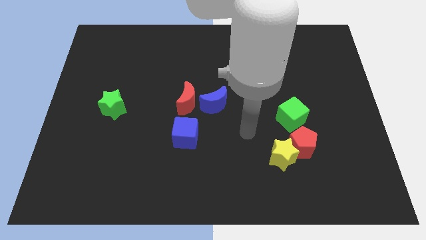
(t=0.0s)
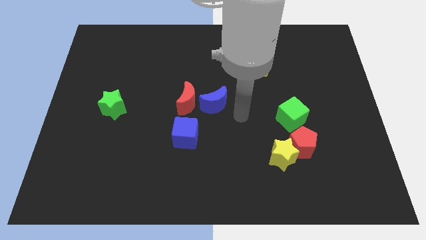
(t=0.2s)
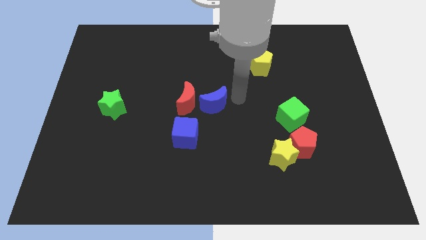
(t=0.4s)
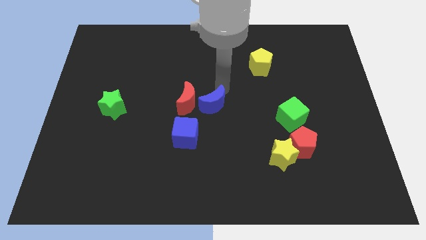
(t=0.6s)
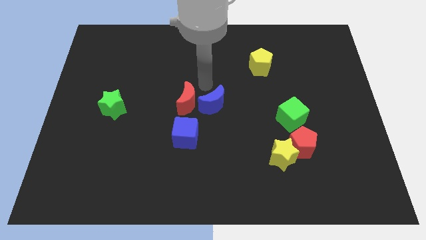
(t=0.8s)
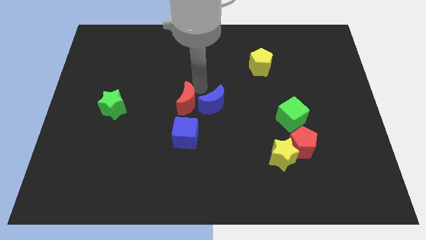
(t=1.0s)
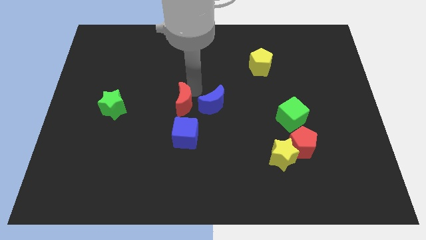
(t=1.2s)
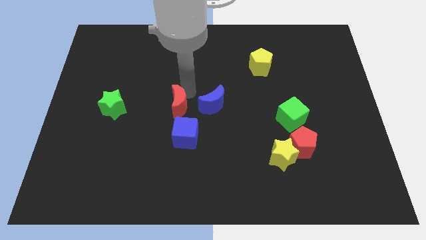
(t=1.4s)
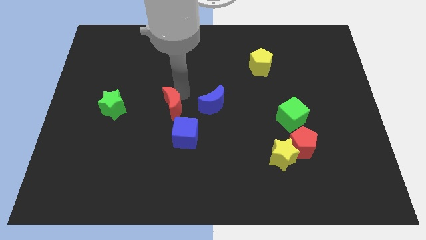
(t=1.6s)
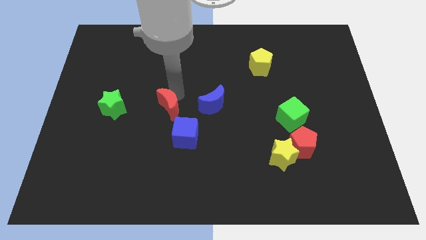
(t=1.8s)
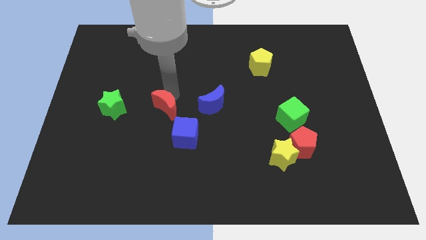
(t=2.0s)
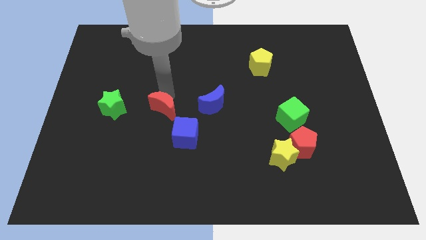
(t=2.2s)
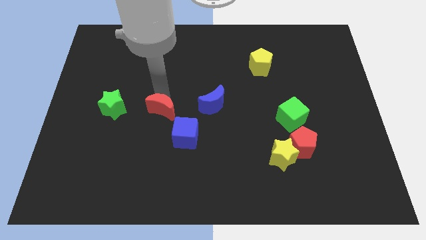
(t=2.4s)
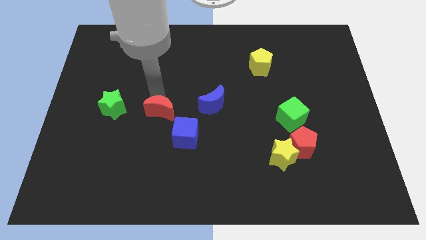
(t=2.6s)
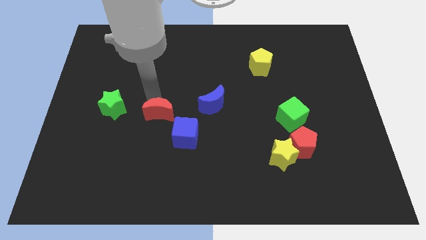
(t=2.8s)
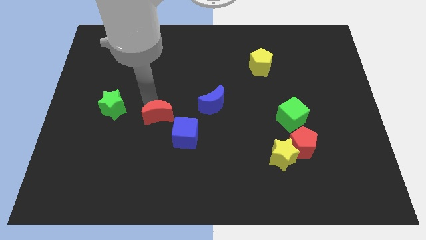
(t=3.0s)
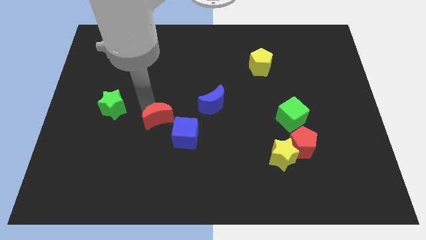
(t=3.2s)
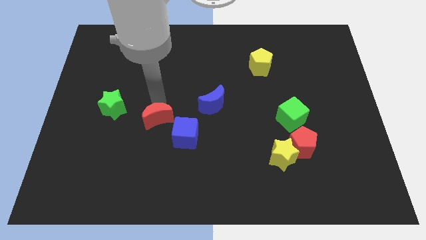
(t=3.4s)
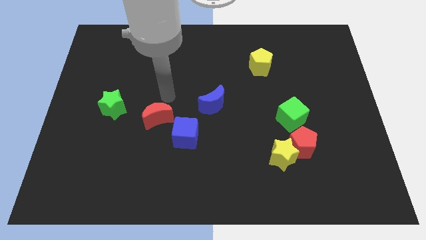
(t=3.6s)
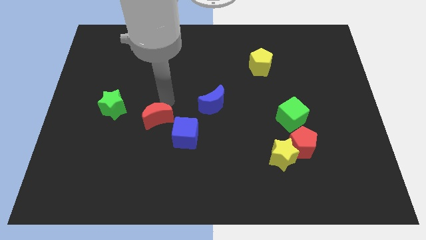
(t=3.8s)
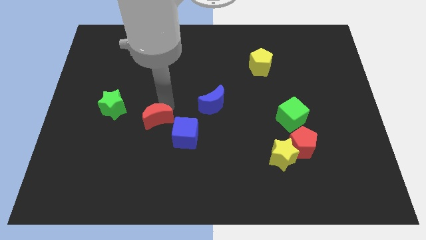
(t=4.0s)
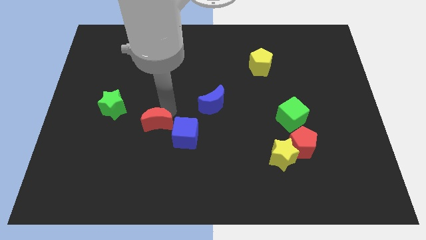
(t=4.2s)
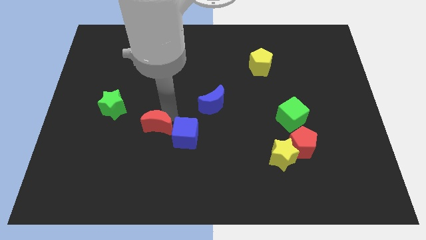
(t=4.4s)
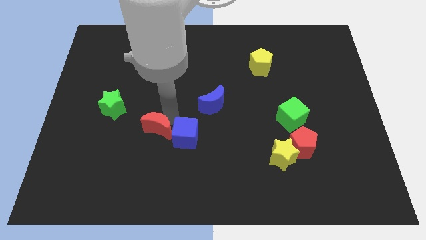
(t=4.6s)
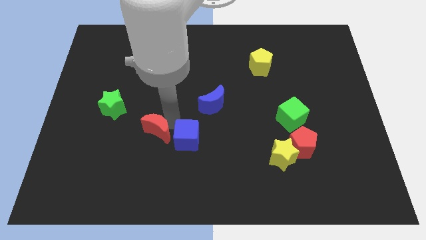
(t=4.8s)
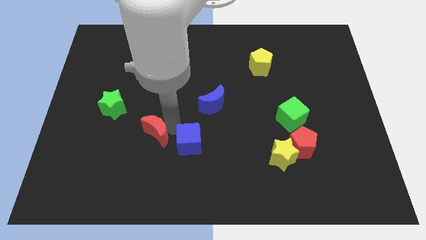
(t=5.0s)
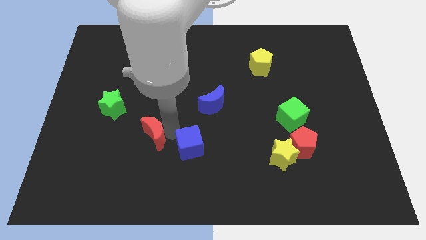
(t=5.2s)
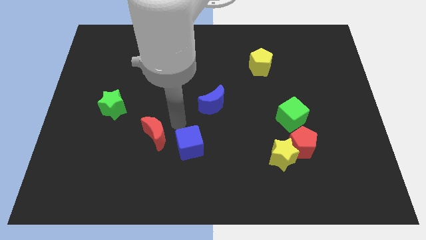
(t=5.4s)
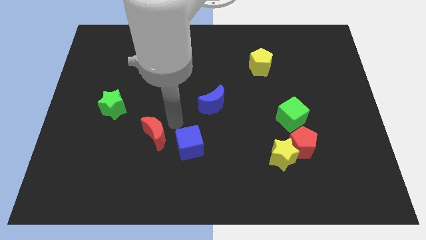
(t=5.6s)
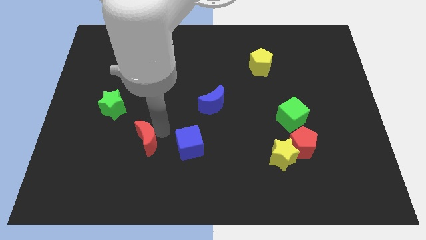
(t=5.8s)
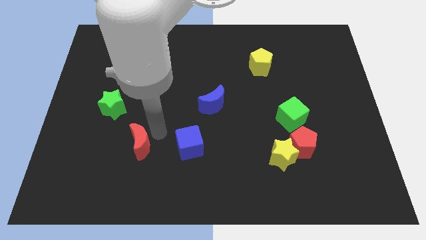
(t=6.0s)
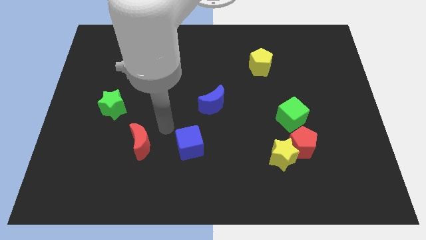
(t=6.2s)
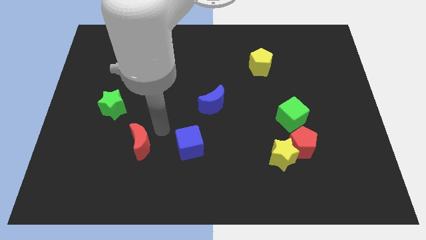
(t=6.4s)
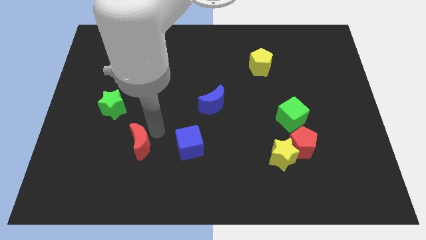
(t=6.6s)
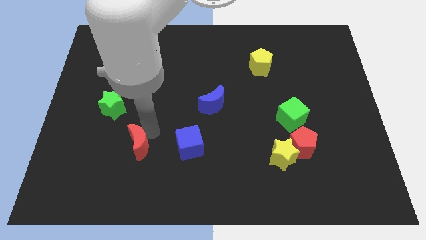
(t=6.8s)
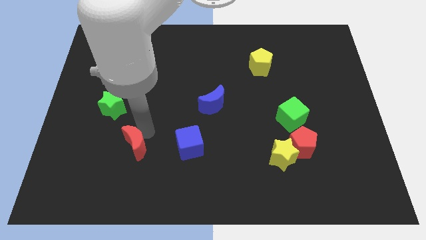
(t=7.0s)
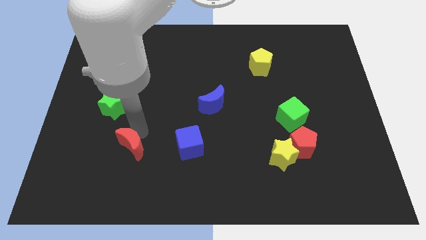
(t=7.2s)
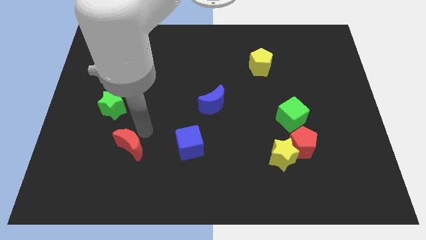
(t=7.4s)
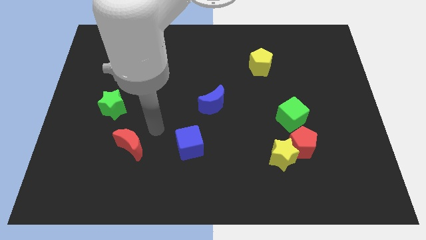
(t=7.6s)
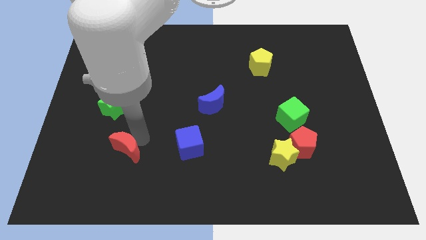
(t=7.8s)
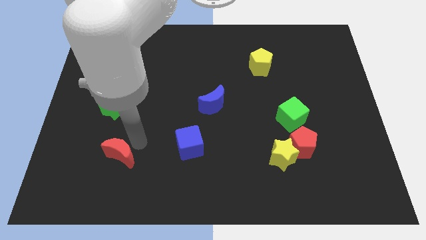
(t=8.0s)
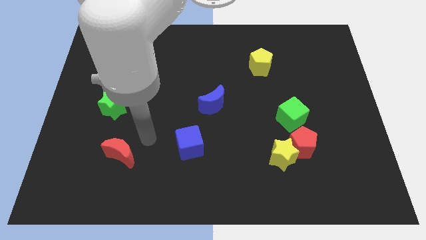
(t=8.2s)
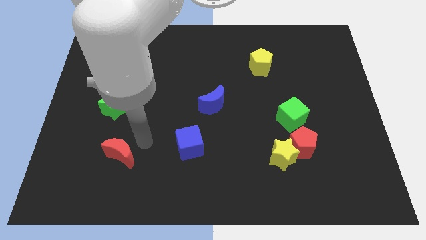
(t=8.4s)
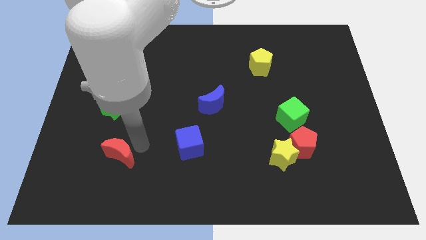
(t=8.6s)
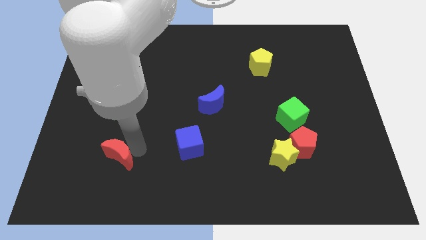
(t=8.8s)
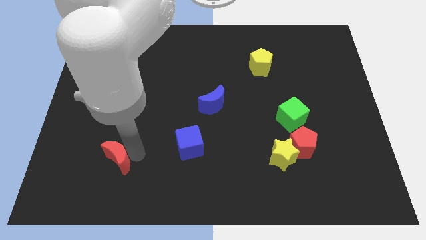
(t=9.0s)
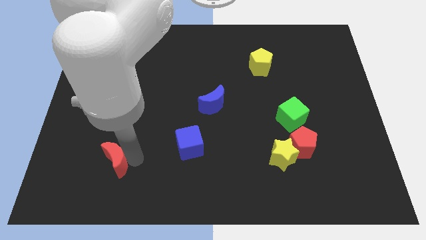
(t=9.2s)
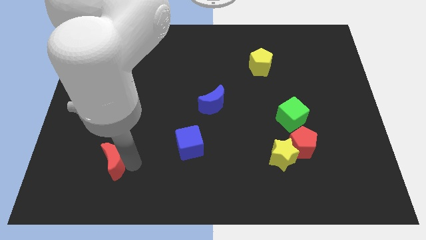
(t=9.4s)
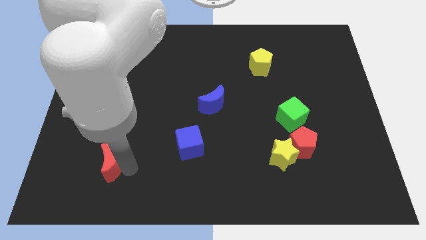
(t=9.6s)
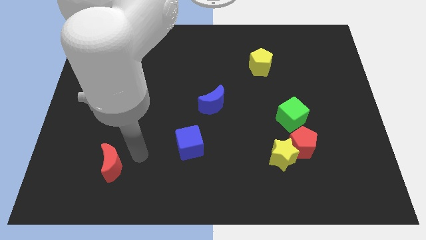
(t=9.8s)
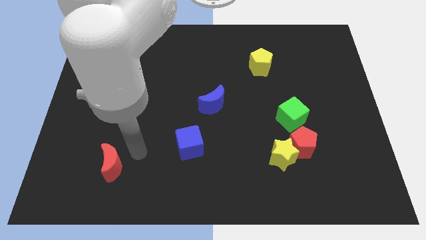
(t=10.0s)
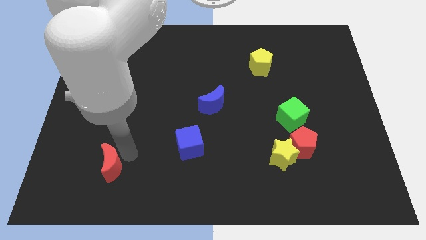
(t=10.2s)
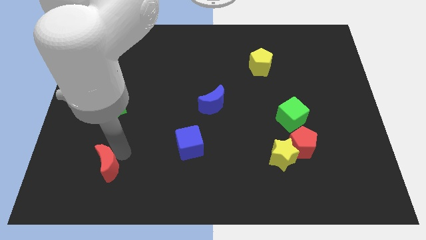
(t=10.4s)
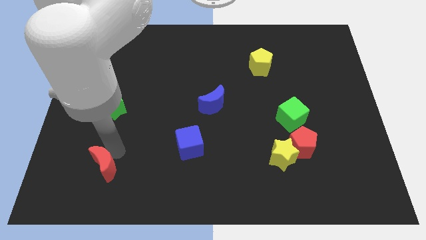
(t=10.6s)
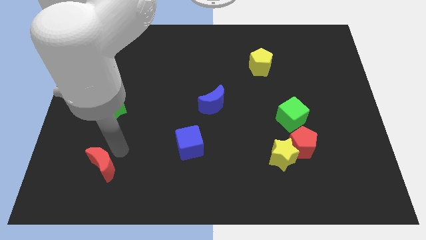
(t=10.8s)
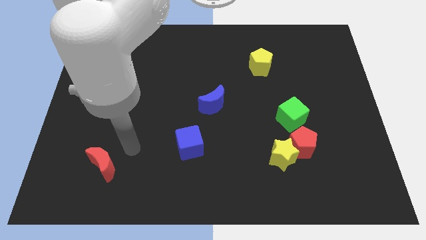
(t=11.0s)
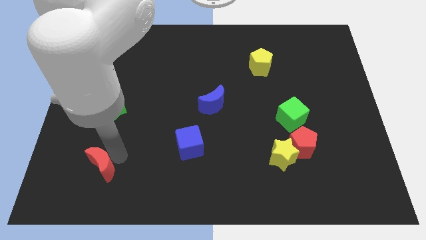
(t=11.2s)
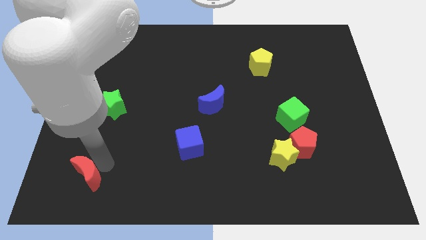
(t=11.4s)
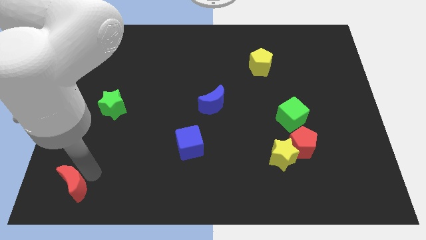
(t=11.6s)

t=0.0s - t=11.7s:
push the red moon to the lower left corner

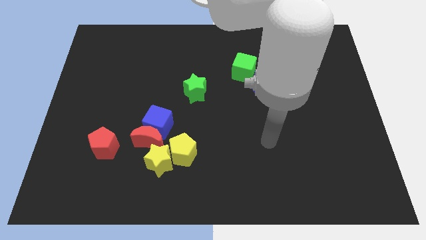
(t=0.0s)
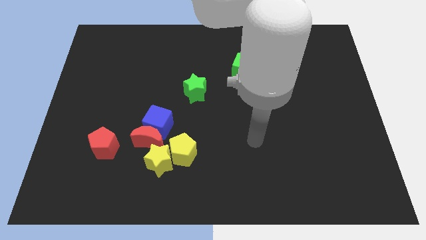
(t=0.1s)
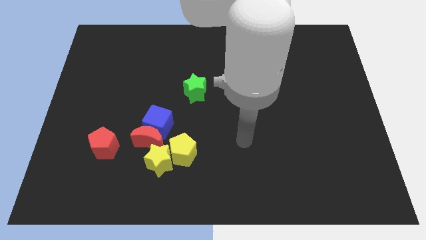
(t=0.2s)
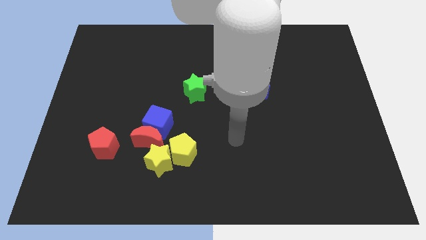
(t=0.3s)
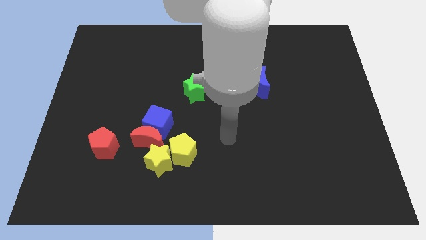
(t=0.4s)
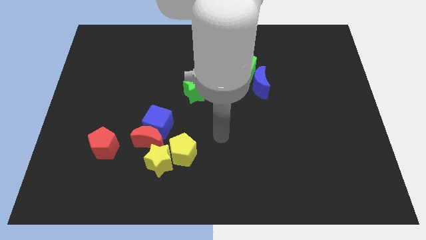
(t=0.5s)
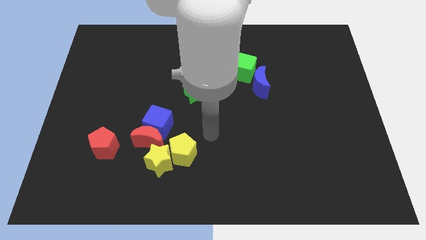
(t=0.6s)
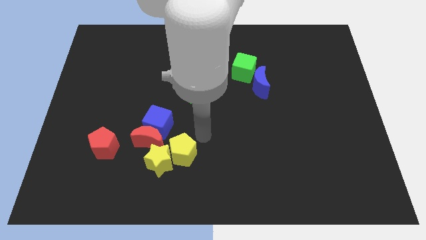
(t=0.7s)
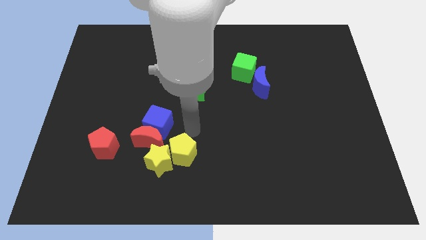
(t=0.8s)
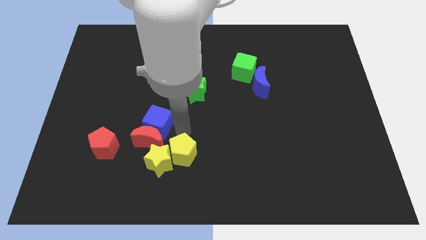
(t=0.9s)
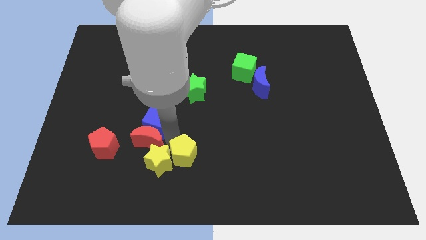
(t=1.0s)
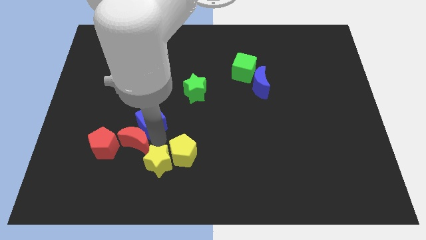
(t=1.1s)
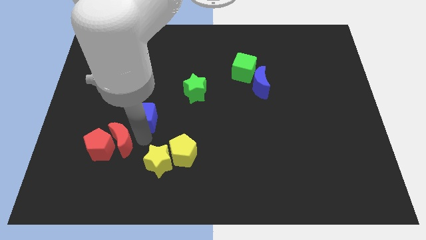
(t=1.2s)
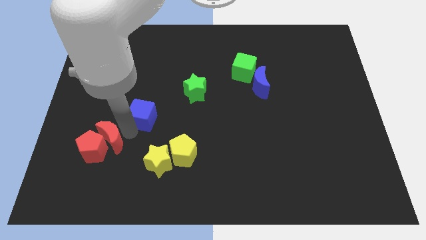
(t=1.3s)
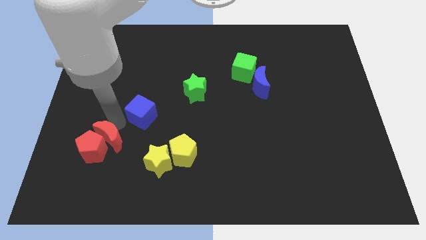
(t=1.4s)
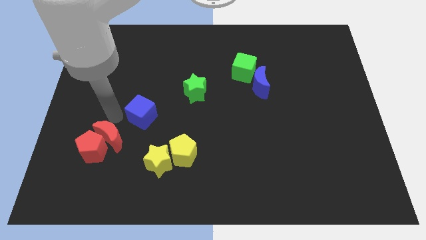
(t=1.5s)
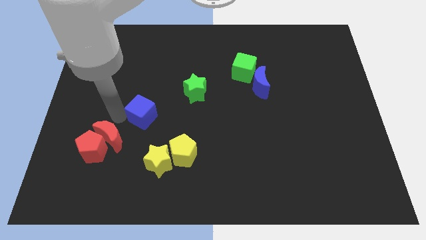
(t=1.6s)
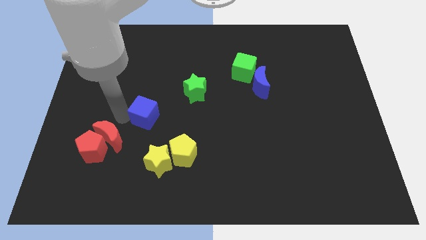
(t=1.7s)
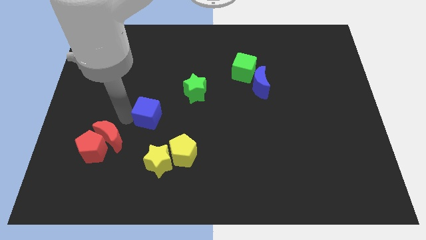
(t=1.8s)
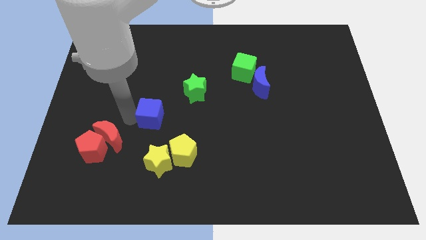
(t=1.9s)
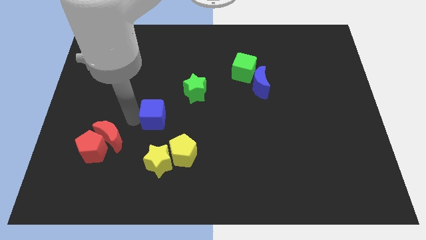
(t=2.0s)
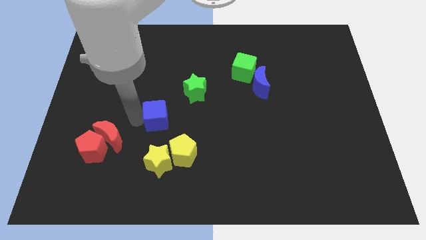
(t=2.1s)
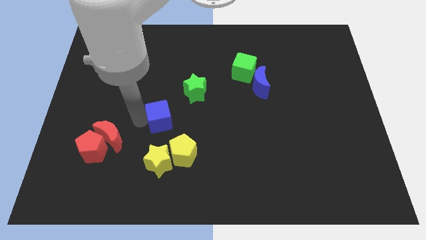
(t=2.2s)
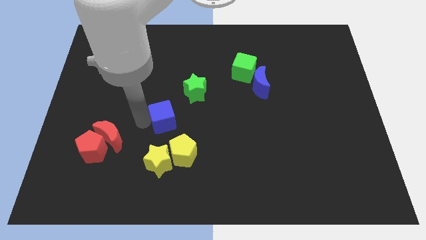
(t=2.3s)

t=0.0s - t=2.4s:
push the blue cube to the center
